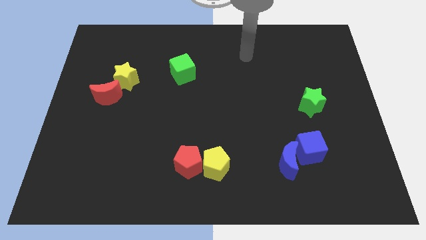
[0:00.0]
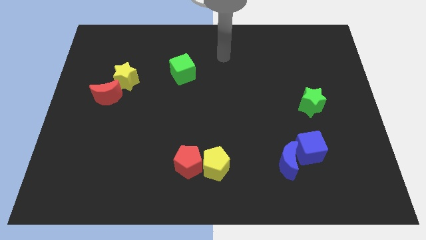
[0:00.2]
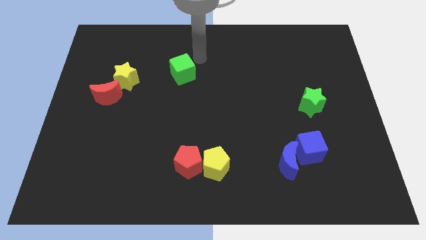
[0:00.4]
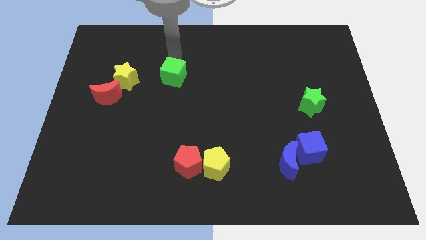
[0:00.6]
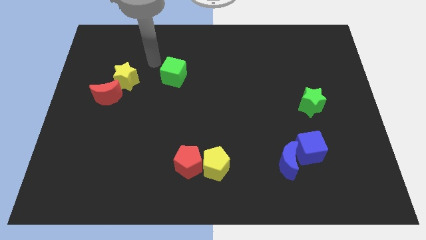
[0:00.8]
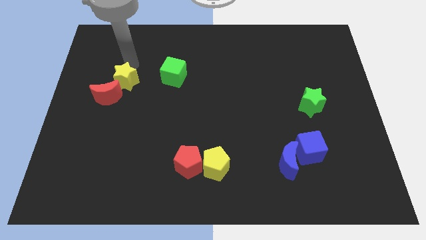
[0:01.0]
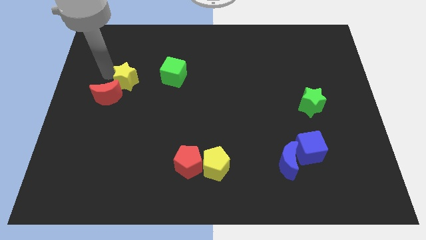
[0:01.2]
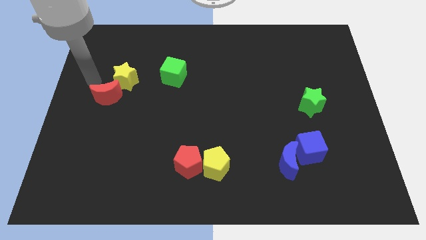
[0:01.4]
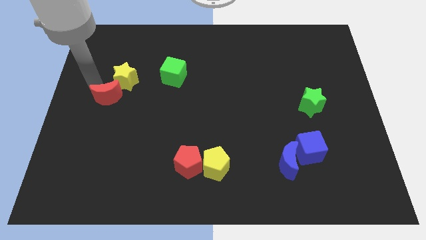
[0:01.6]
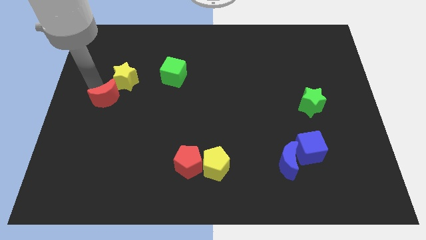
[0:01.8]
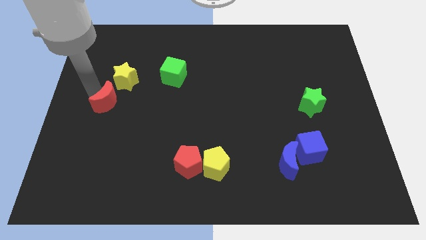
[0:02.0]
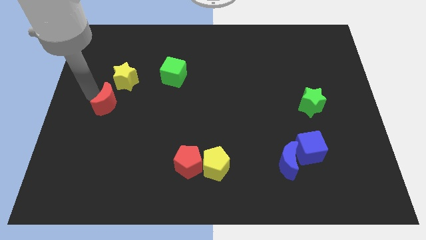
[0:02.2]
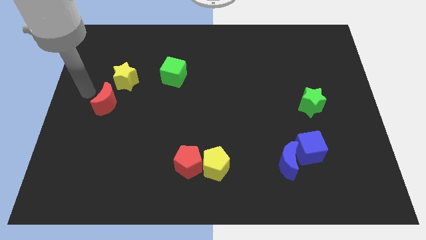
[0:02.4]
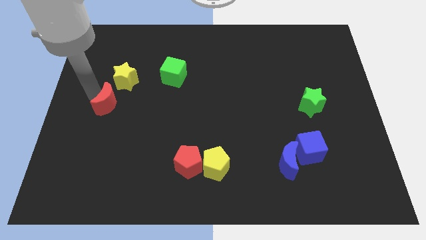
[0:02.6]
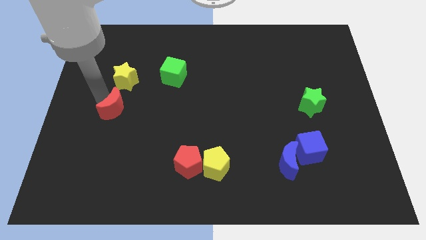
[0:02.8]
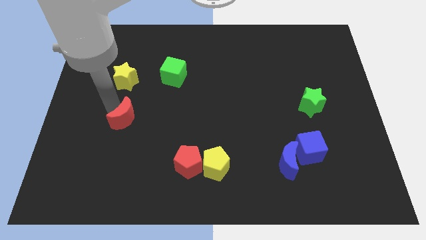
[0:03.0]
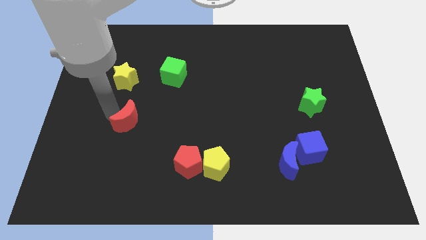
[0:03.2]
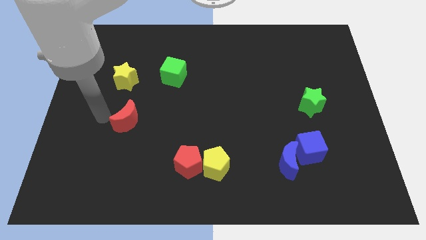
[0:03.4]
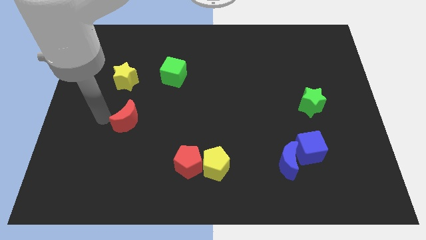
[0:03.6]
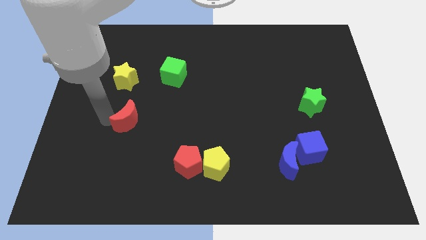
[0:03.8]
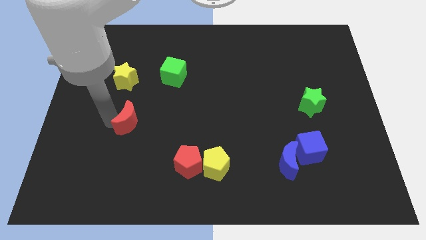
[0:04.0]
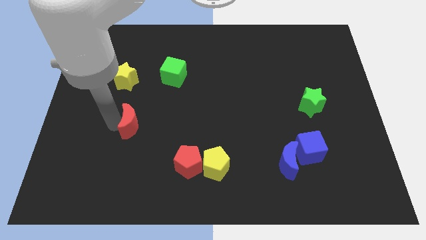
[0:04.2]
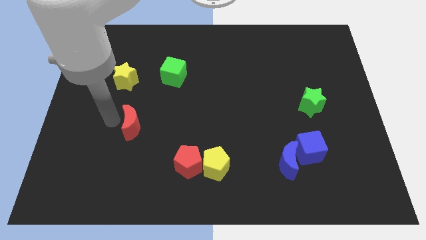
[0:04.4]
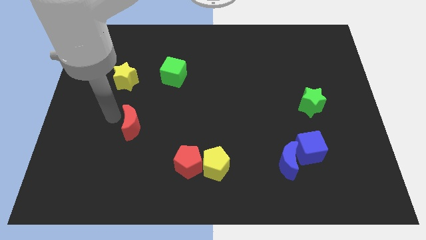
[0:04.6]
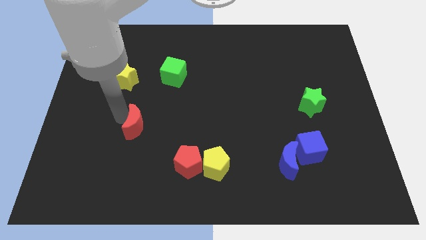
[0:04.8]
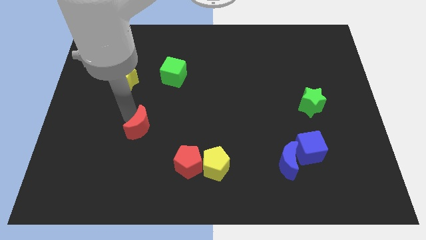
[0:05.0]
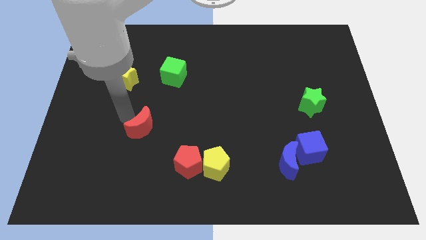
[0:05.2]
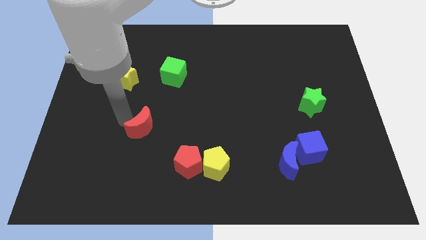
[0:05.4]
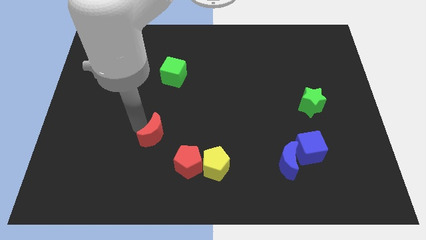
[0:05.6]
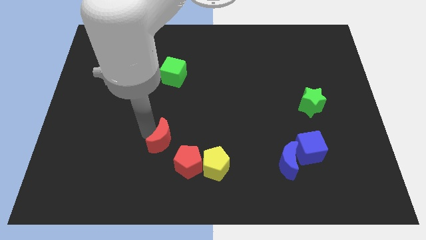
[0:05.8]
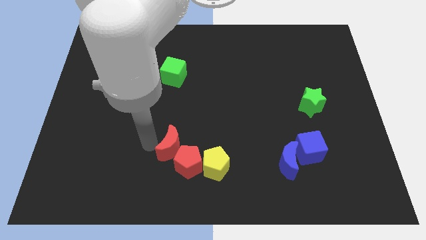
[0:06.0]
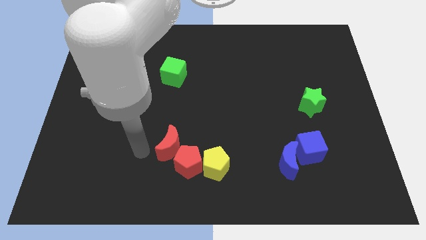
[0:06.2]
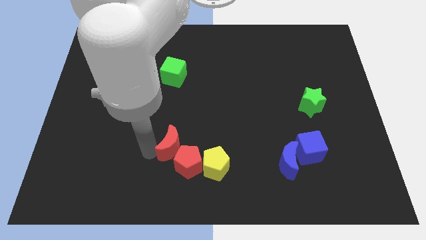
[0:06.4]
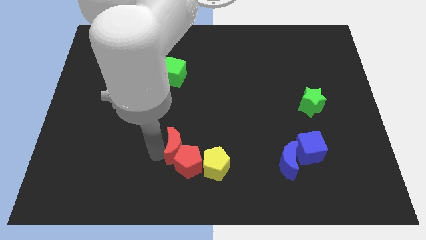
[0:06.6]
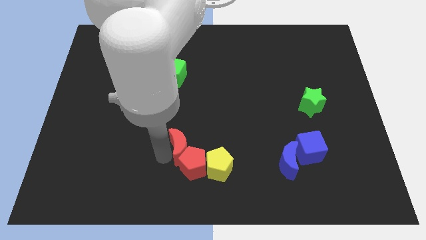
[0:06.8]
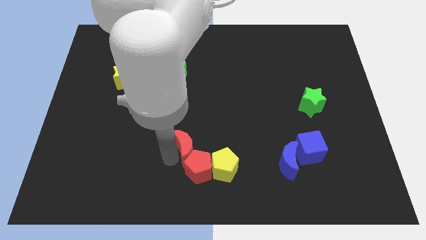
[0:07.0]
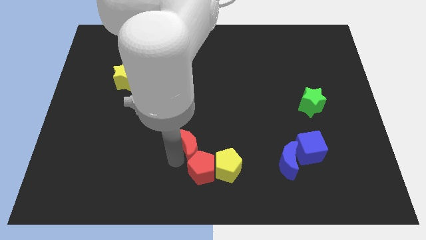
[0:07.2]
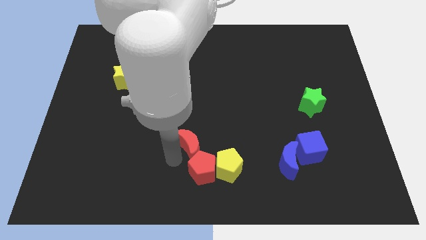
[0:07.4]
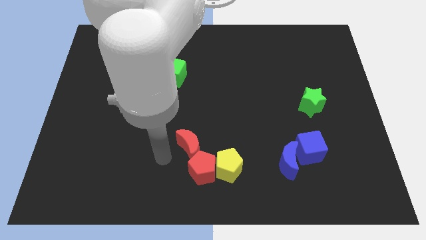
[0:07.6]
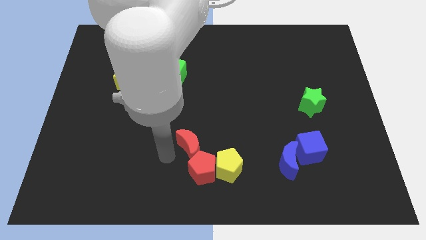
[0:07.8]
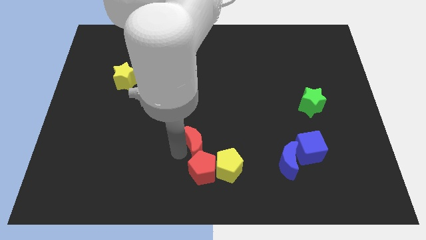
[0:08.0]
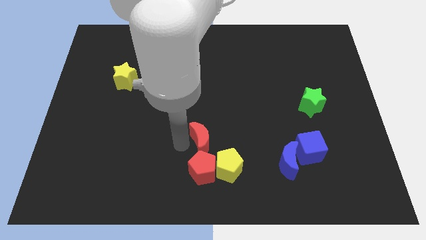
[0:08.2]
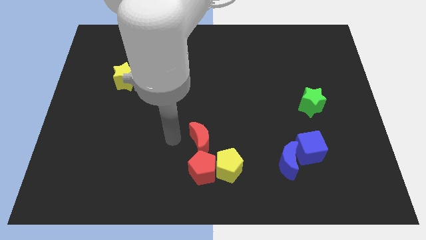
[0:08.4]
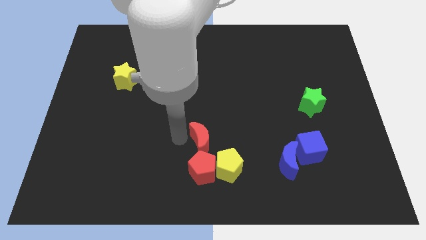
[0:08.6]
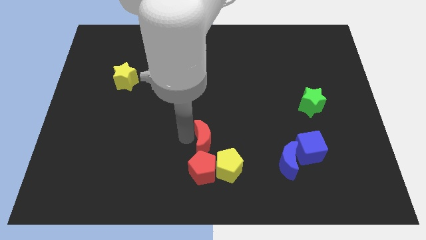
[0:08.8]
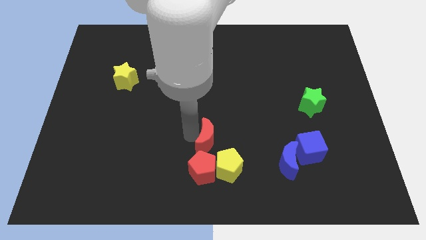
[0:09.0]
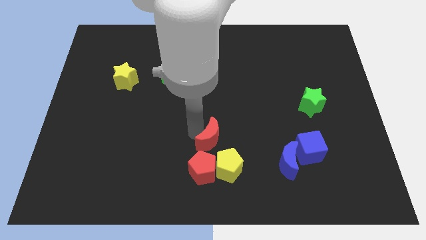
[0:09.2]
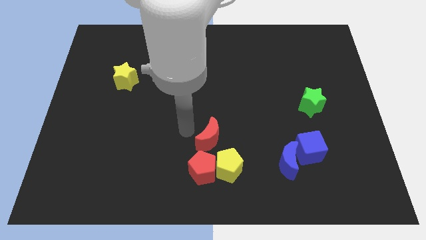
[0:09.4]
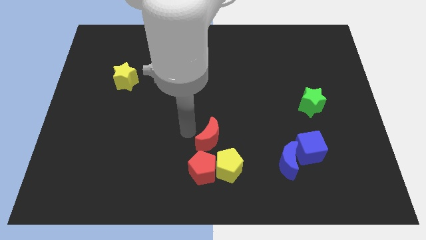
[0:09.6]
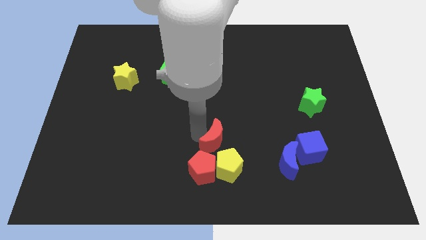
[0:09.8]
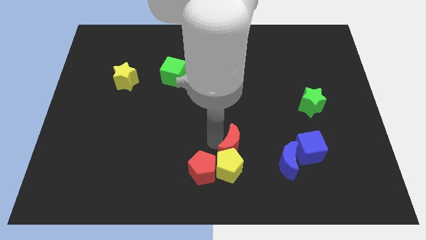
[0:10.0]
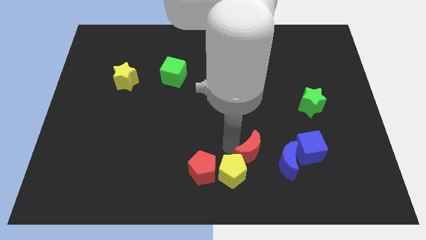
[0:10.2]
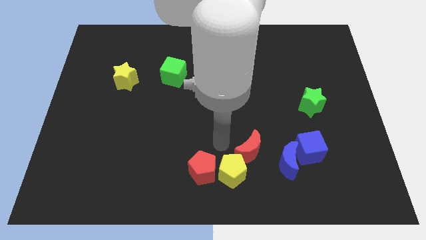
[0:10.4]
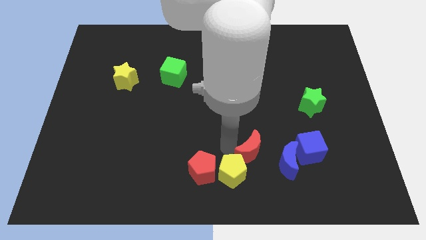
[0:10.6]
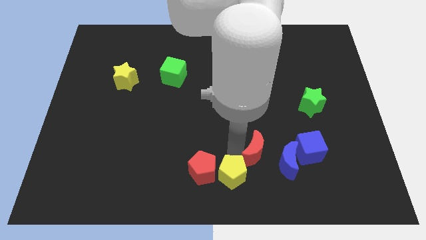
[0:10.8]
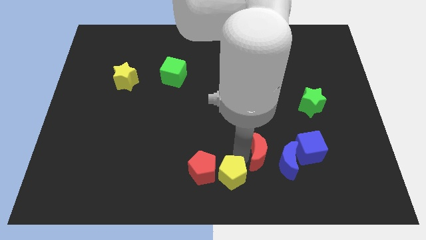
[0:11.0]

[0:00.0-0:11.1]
move the red moon to the blue moon

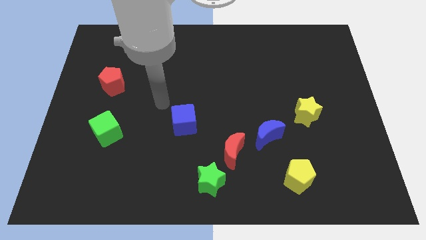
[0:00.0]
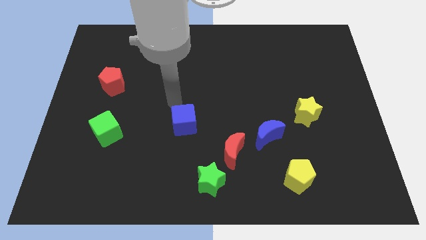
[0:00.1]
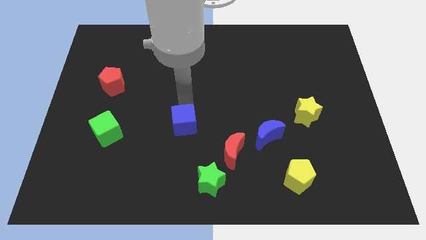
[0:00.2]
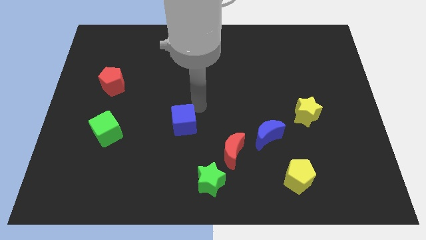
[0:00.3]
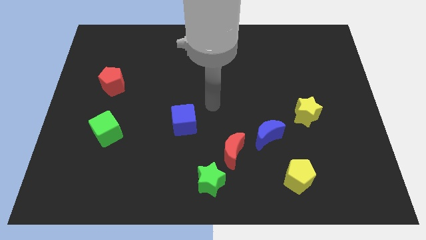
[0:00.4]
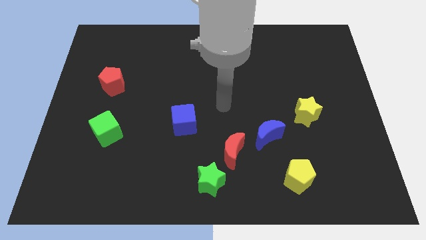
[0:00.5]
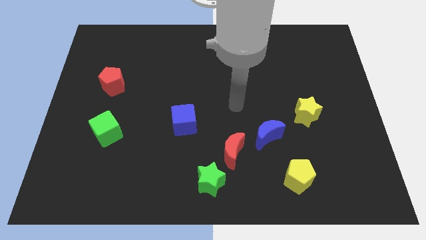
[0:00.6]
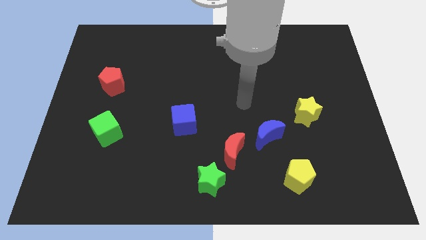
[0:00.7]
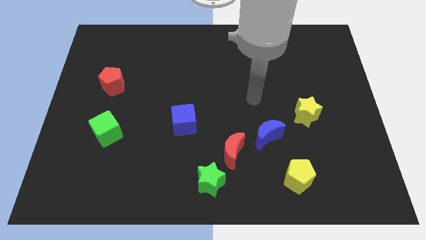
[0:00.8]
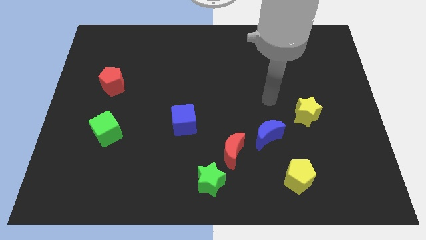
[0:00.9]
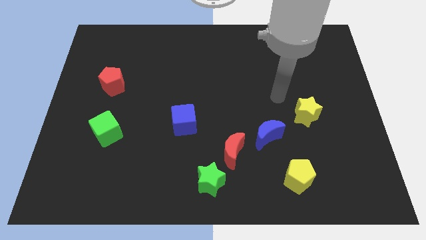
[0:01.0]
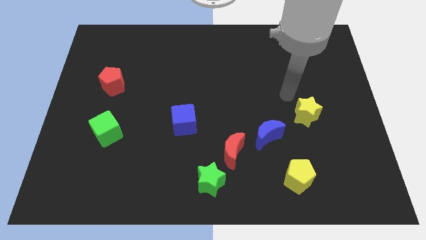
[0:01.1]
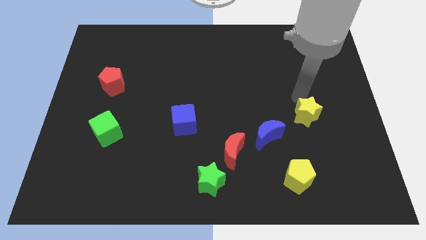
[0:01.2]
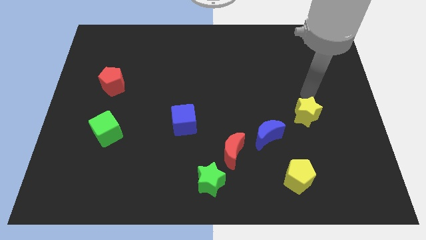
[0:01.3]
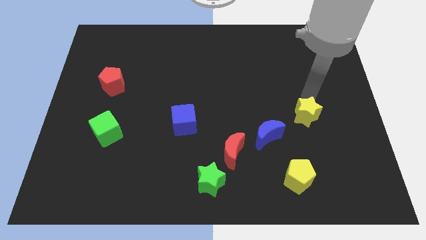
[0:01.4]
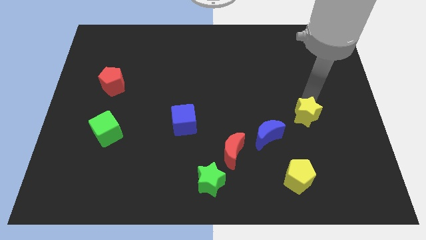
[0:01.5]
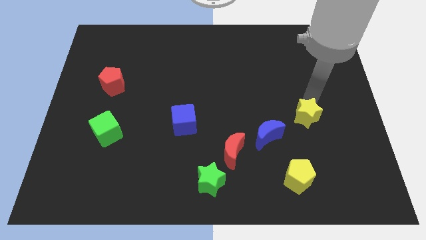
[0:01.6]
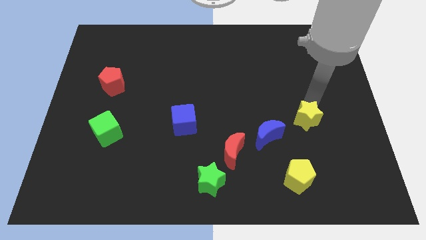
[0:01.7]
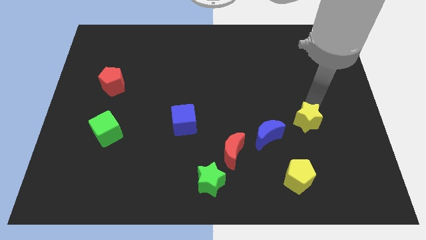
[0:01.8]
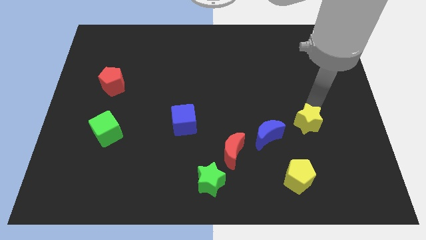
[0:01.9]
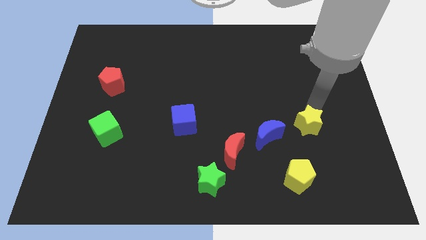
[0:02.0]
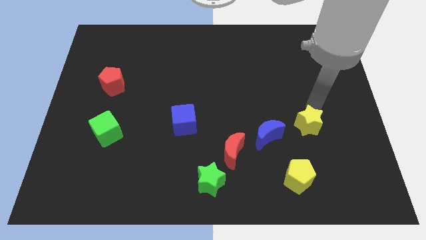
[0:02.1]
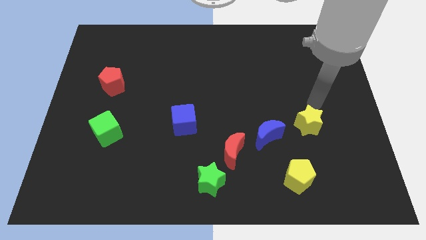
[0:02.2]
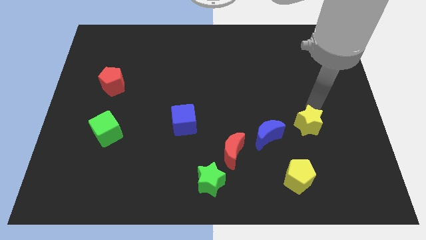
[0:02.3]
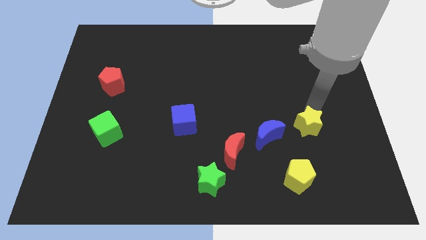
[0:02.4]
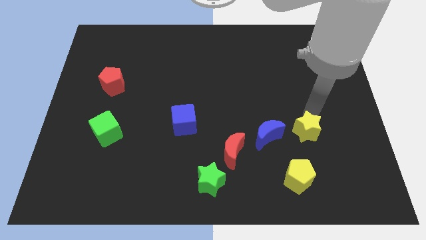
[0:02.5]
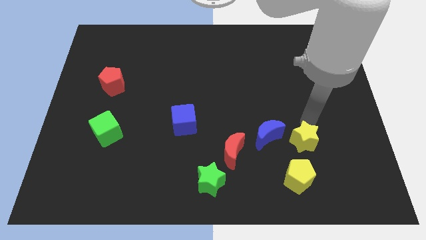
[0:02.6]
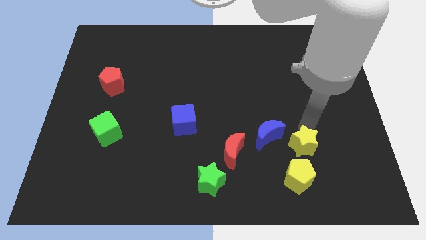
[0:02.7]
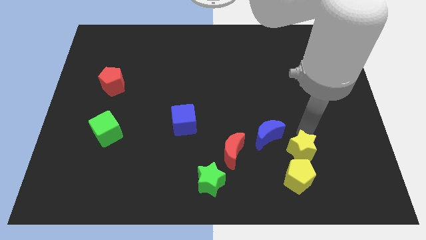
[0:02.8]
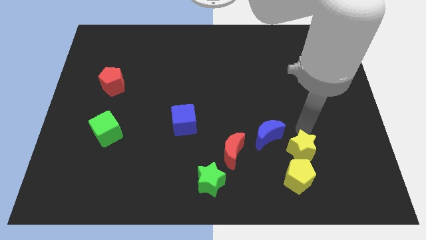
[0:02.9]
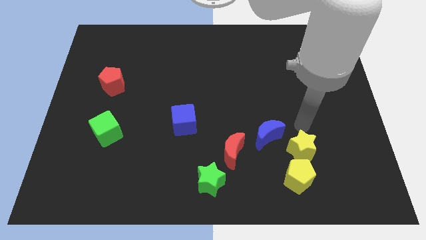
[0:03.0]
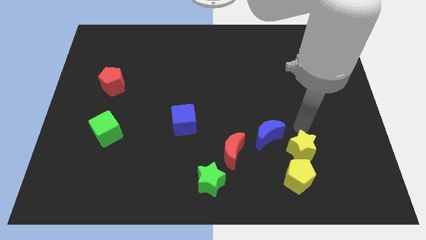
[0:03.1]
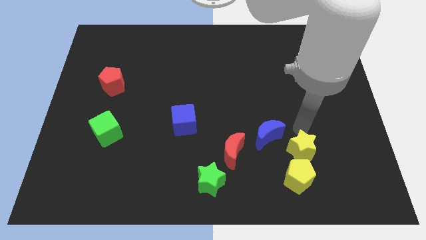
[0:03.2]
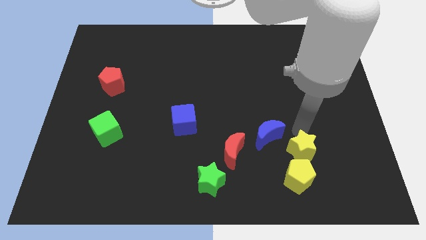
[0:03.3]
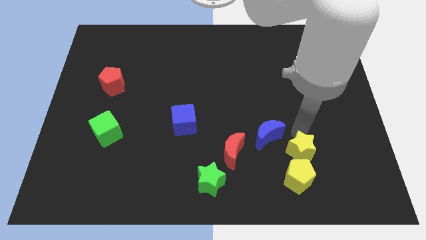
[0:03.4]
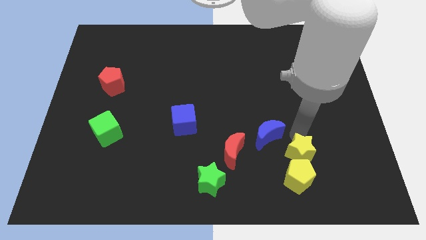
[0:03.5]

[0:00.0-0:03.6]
move the yellow star to the yellow pentagon
